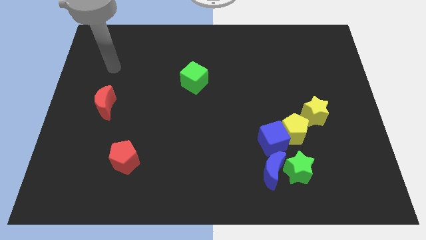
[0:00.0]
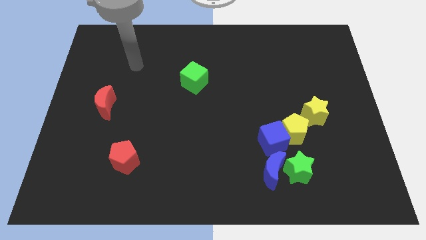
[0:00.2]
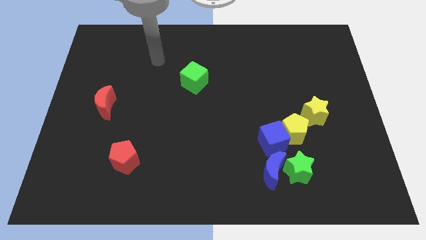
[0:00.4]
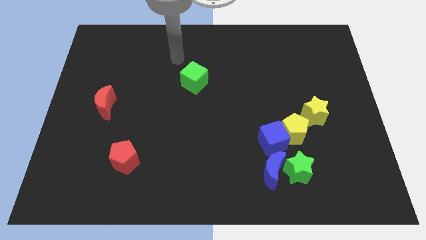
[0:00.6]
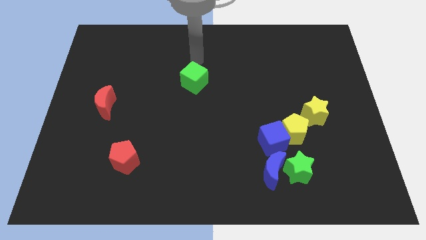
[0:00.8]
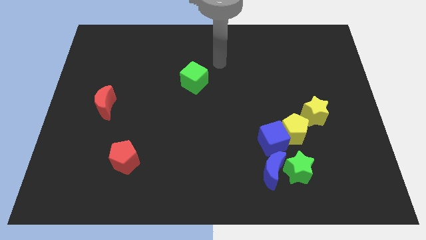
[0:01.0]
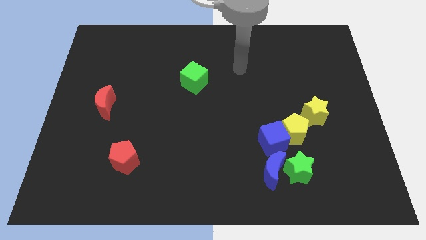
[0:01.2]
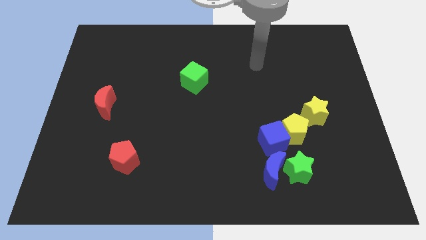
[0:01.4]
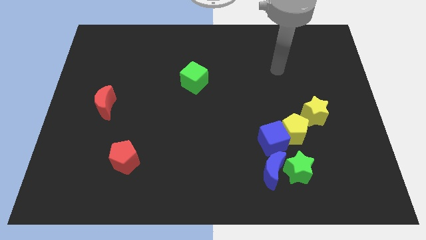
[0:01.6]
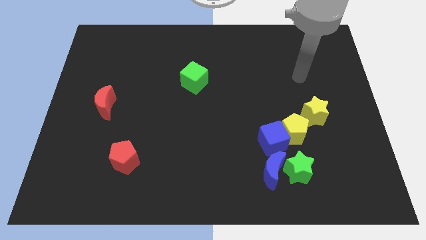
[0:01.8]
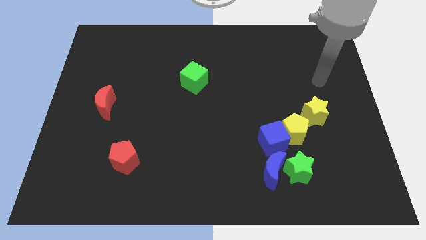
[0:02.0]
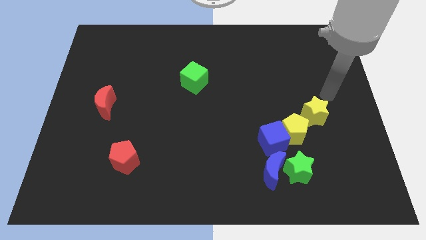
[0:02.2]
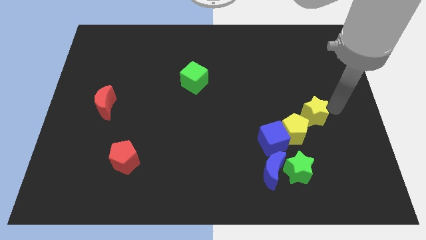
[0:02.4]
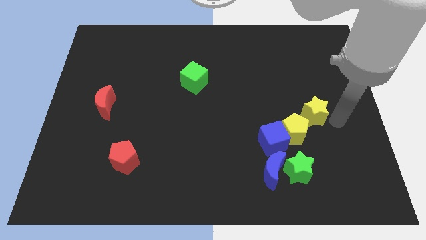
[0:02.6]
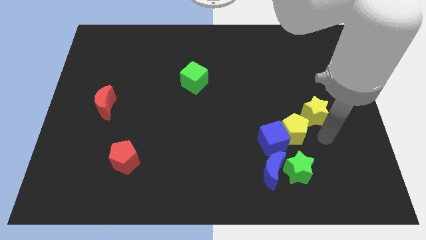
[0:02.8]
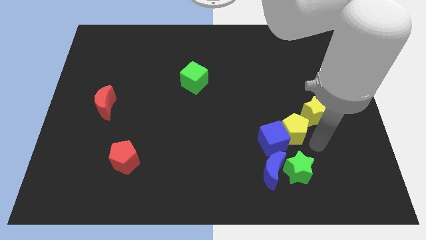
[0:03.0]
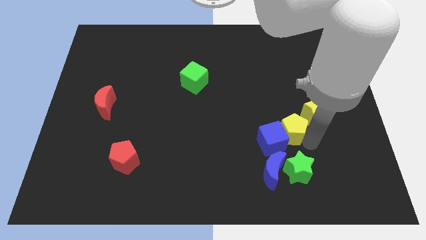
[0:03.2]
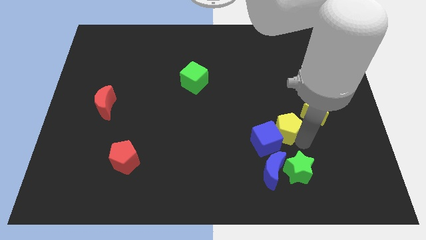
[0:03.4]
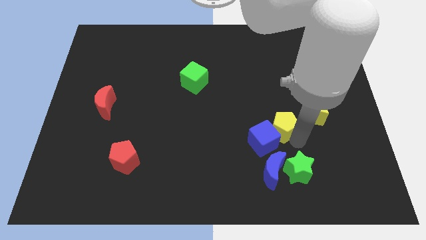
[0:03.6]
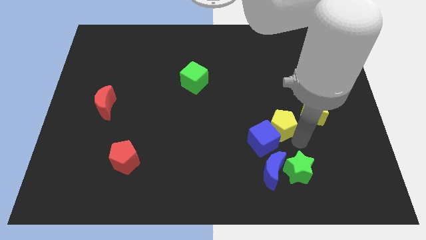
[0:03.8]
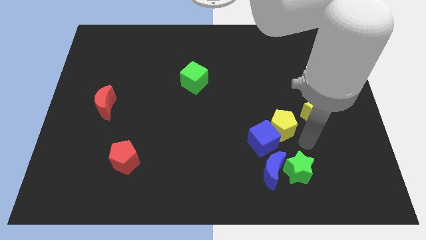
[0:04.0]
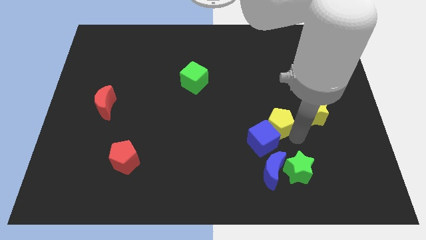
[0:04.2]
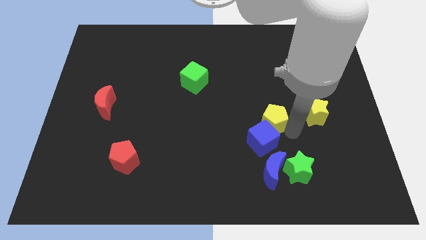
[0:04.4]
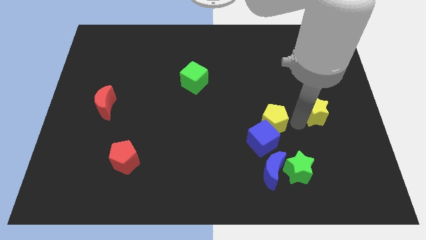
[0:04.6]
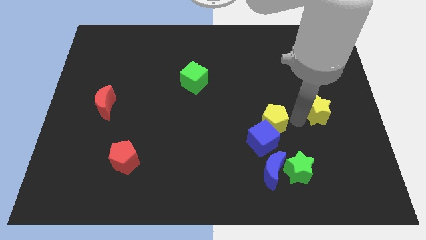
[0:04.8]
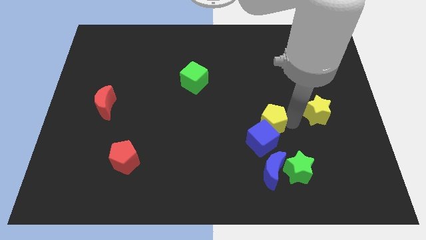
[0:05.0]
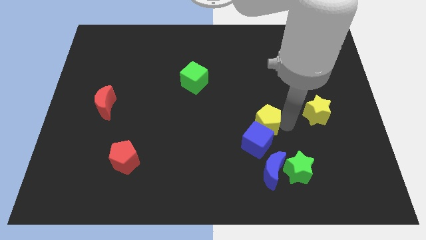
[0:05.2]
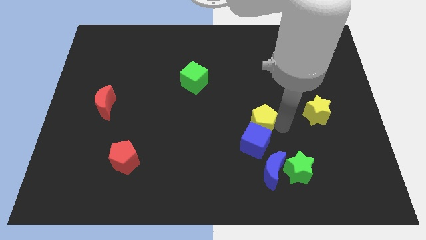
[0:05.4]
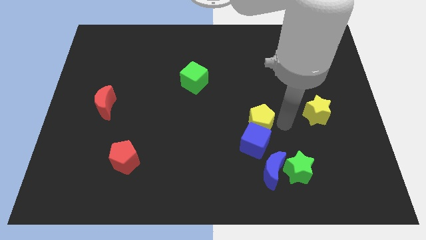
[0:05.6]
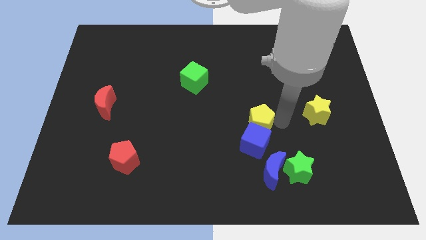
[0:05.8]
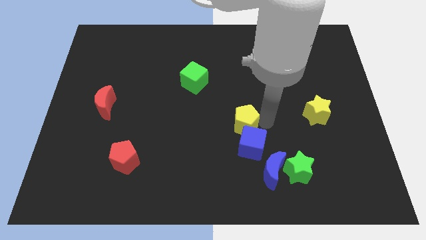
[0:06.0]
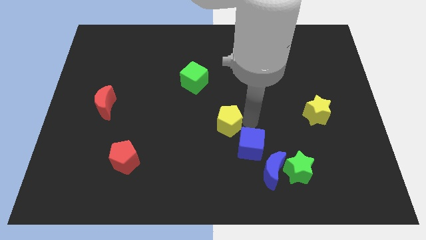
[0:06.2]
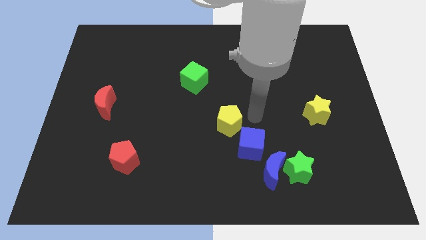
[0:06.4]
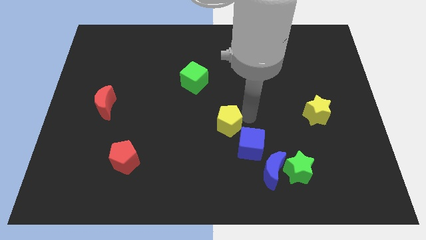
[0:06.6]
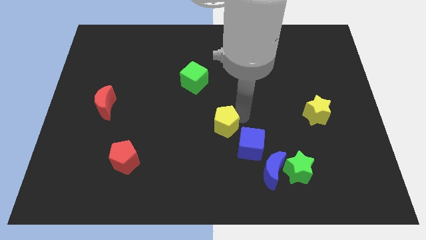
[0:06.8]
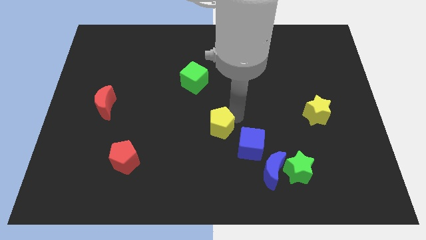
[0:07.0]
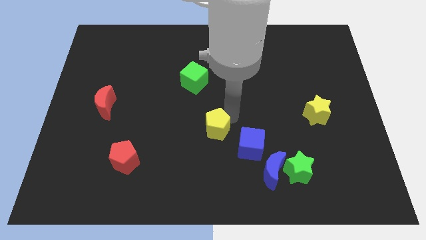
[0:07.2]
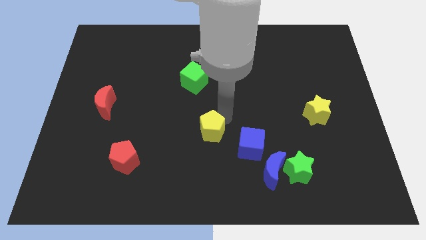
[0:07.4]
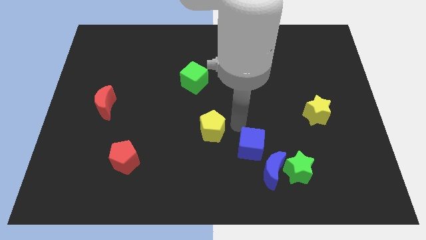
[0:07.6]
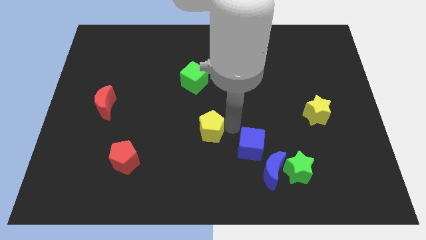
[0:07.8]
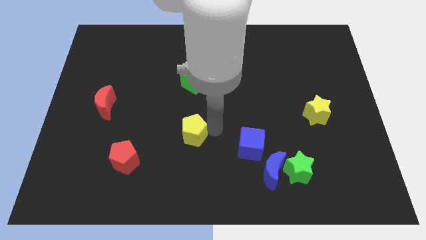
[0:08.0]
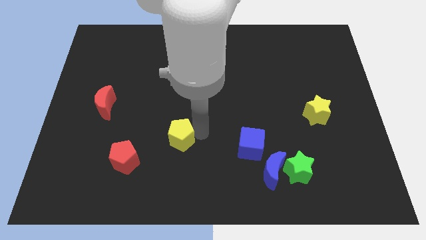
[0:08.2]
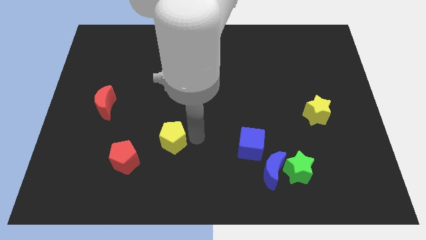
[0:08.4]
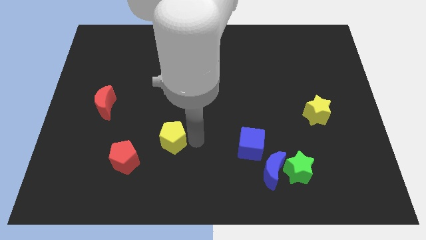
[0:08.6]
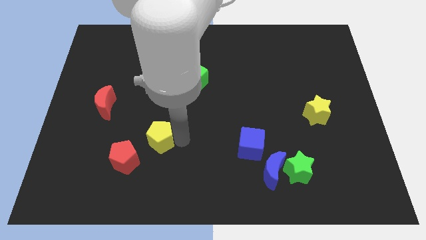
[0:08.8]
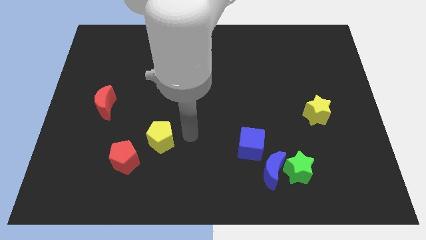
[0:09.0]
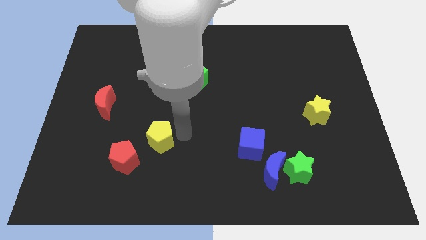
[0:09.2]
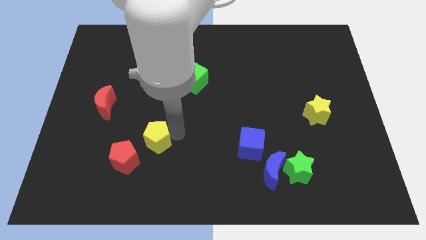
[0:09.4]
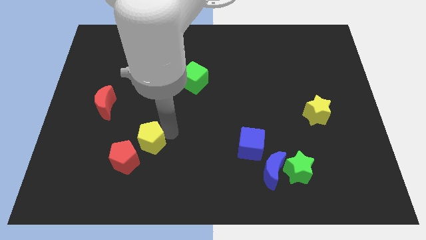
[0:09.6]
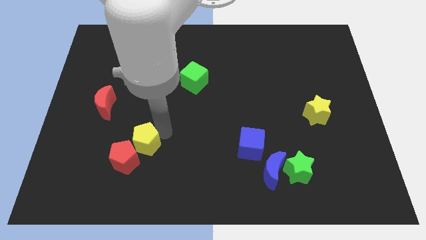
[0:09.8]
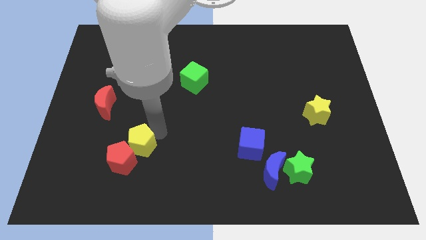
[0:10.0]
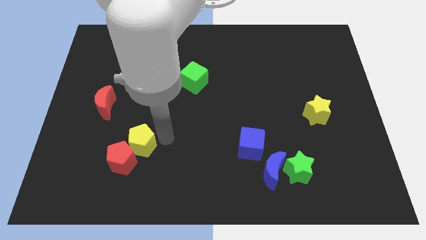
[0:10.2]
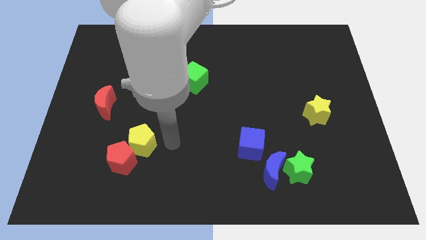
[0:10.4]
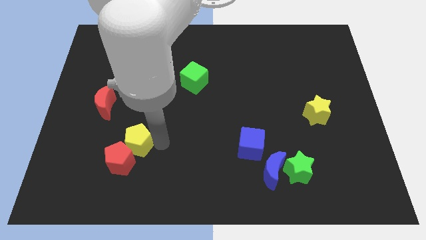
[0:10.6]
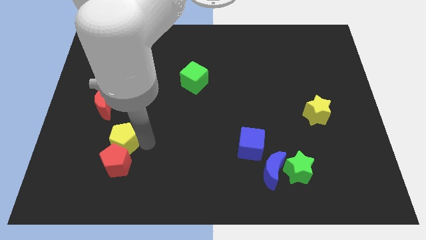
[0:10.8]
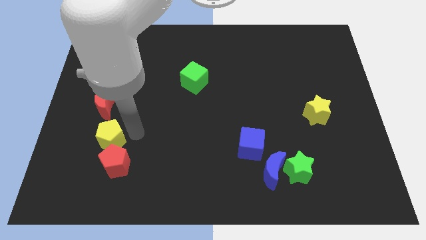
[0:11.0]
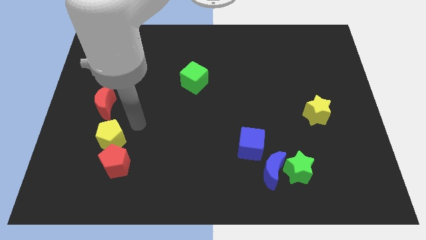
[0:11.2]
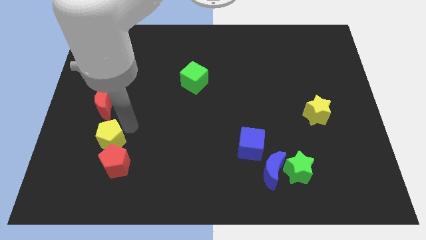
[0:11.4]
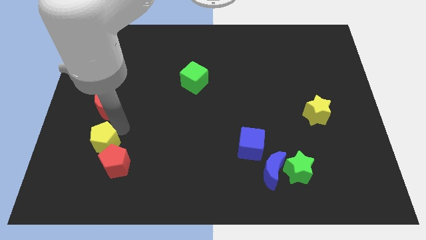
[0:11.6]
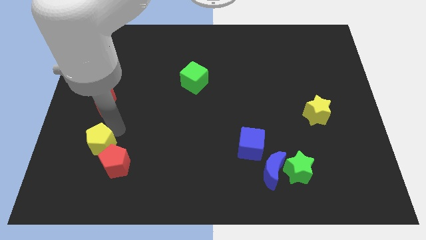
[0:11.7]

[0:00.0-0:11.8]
move the yellow pentagon to the left of the red pentagon

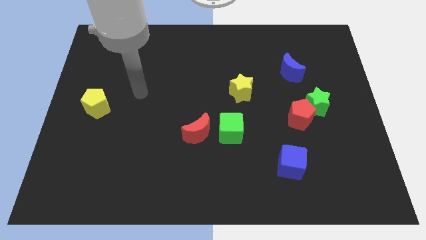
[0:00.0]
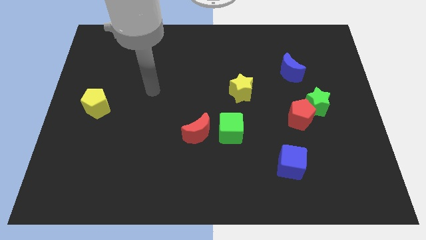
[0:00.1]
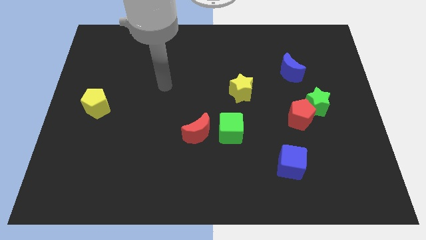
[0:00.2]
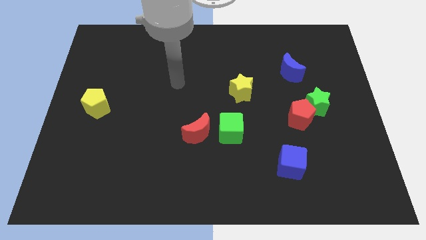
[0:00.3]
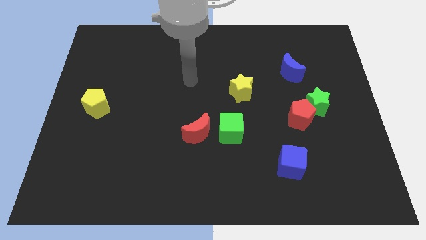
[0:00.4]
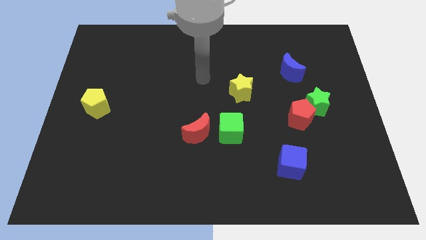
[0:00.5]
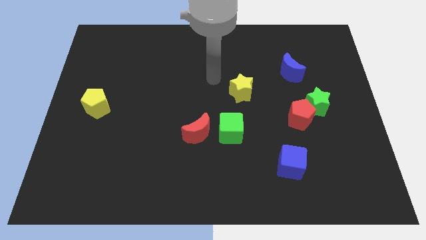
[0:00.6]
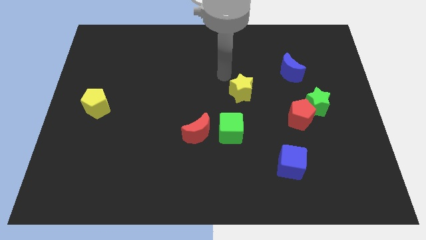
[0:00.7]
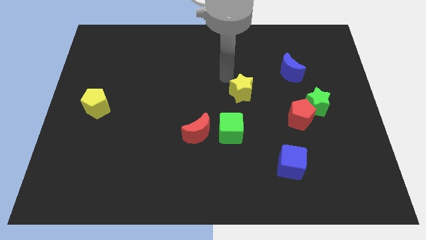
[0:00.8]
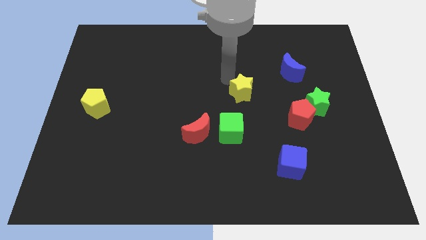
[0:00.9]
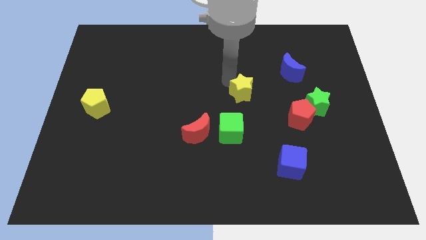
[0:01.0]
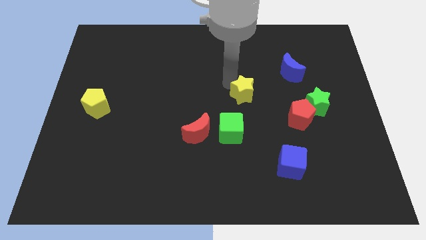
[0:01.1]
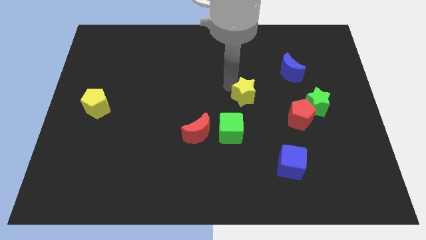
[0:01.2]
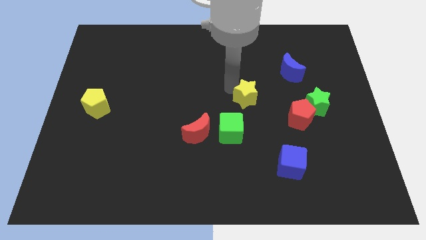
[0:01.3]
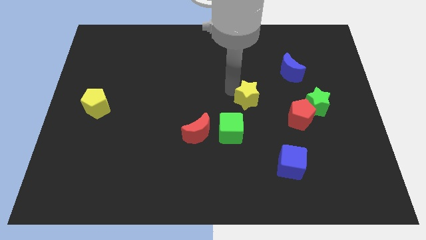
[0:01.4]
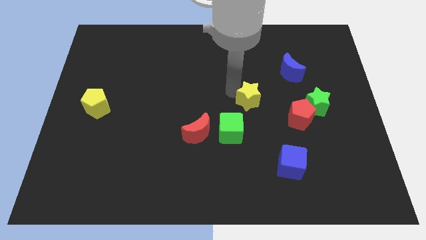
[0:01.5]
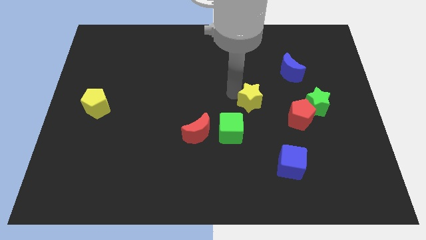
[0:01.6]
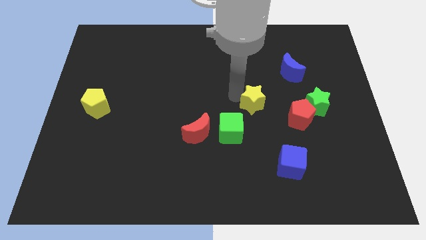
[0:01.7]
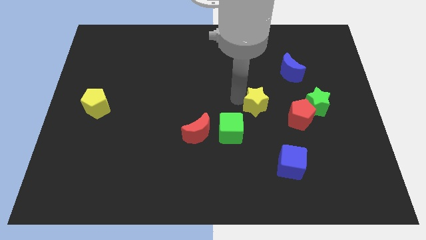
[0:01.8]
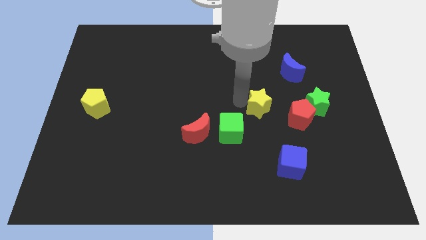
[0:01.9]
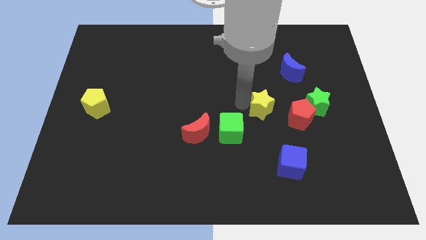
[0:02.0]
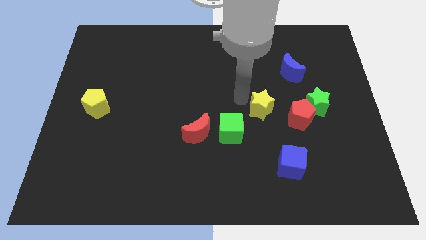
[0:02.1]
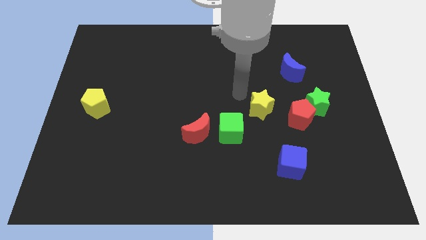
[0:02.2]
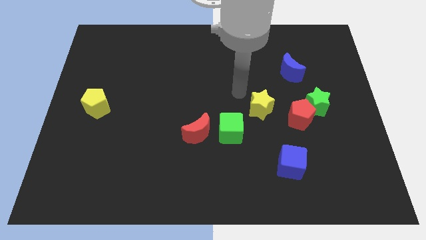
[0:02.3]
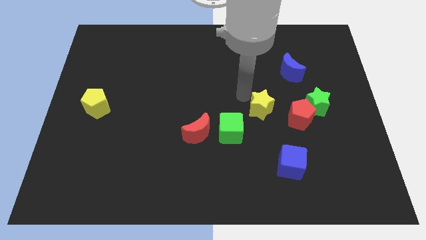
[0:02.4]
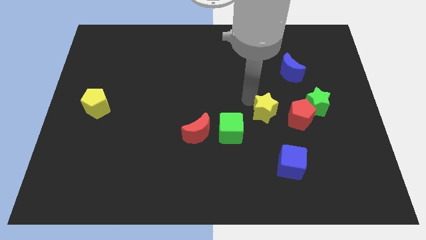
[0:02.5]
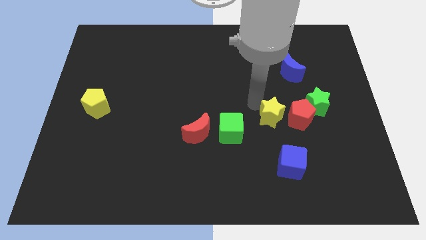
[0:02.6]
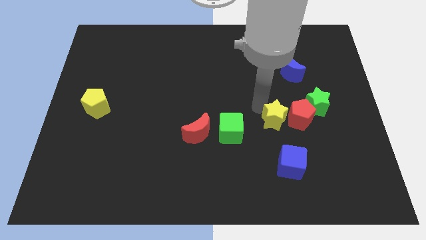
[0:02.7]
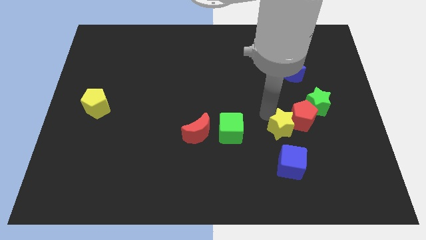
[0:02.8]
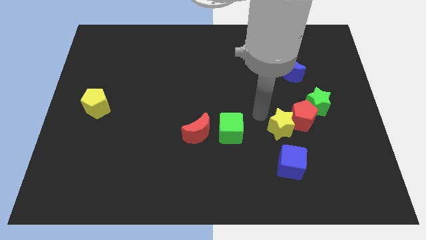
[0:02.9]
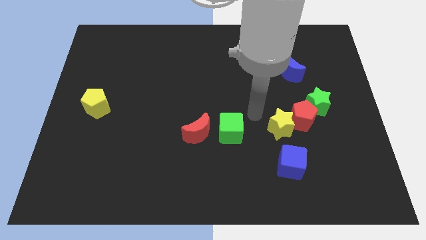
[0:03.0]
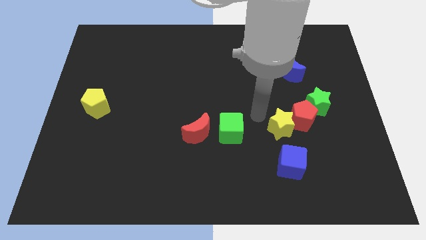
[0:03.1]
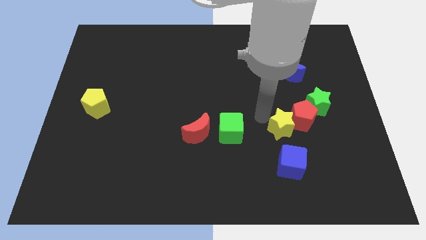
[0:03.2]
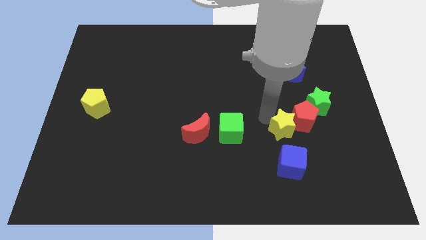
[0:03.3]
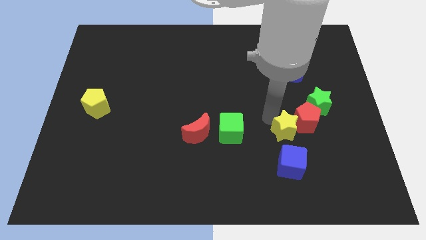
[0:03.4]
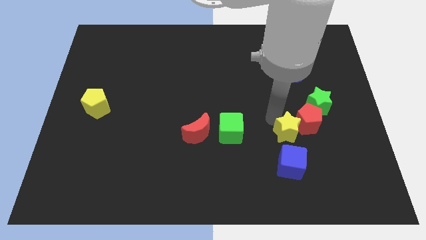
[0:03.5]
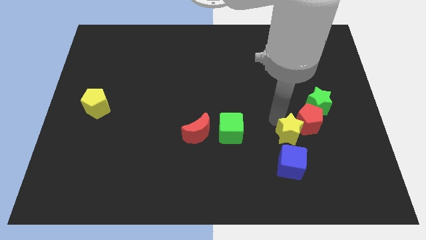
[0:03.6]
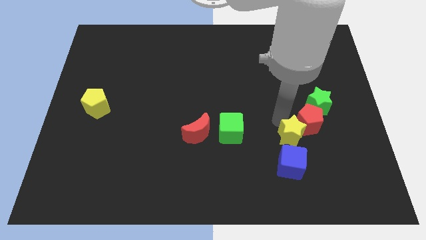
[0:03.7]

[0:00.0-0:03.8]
put the yellow star diagonally up and to the right of the blue cube
